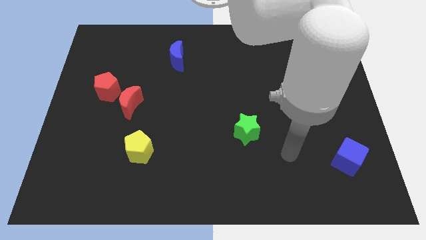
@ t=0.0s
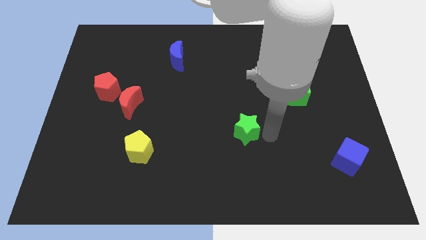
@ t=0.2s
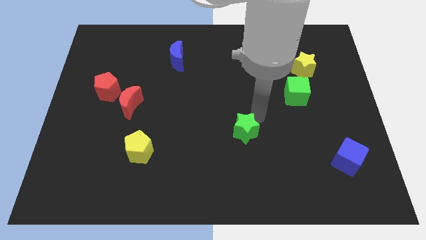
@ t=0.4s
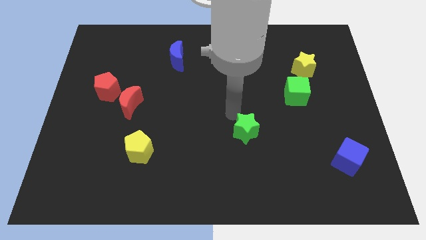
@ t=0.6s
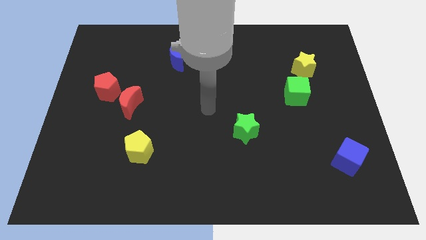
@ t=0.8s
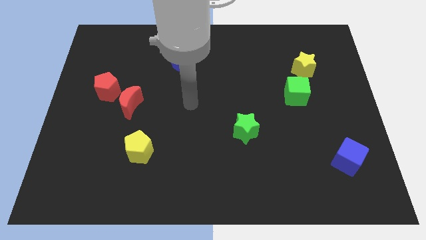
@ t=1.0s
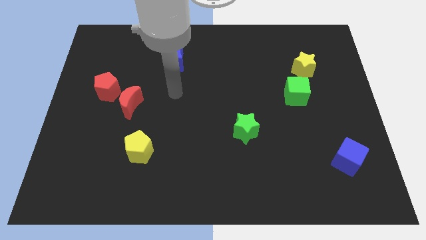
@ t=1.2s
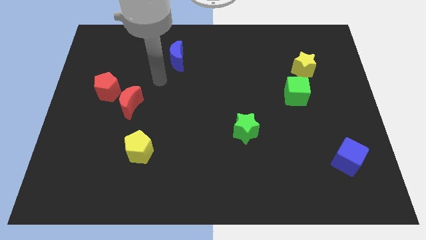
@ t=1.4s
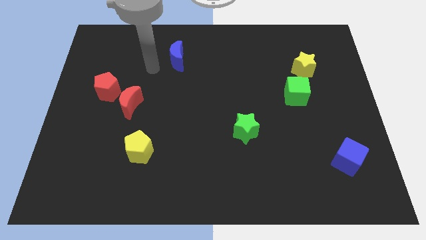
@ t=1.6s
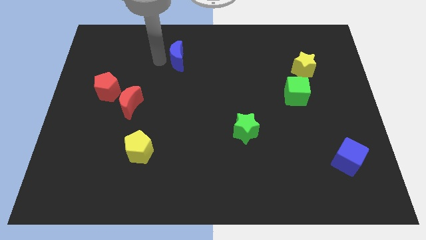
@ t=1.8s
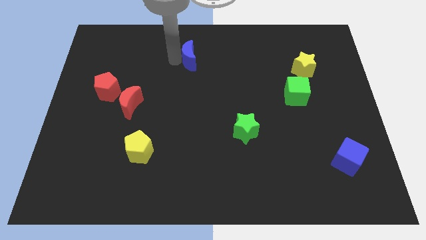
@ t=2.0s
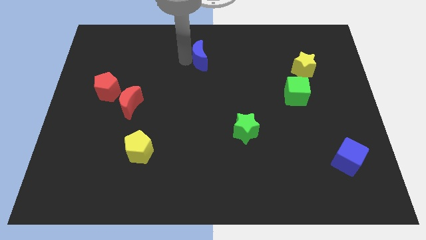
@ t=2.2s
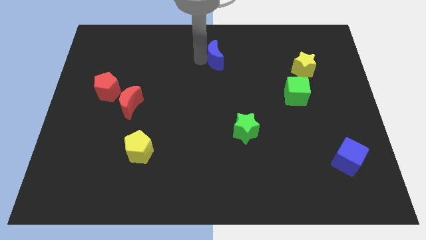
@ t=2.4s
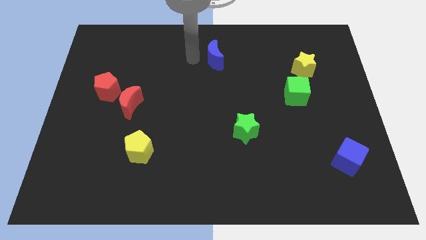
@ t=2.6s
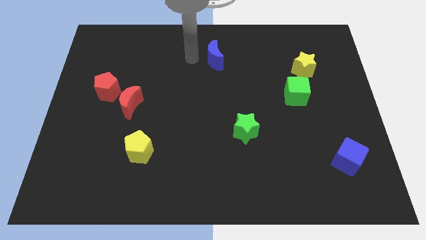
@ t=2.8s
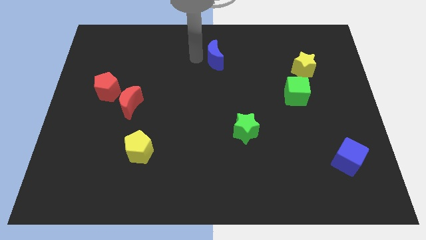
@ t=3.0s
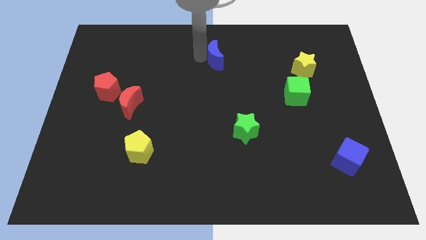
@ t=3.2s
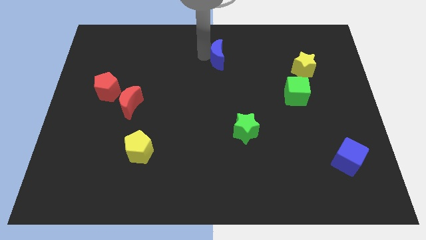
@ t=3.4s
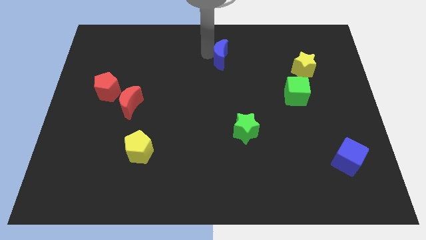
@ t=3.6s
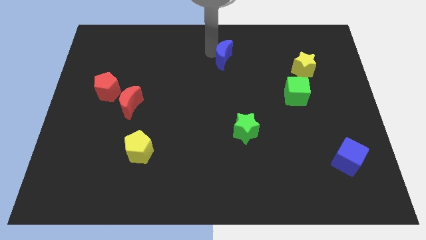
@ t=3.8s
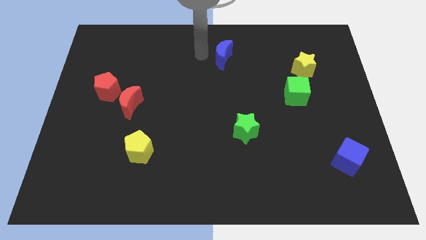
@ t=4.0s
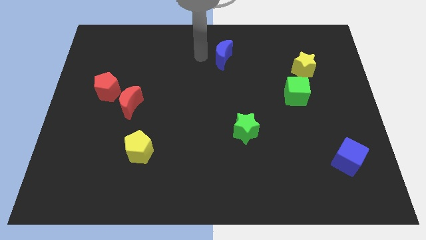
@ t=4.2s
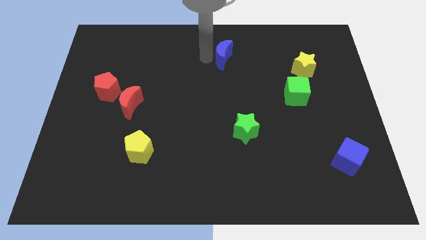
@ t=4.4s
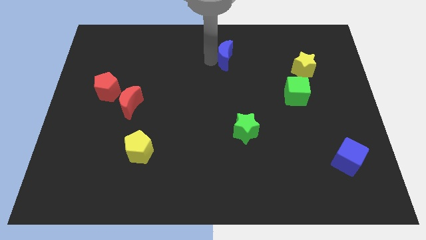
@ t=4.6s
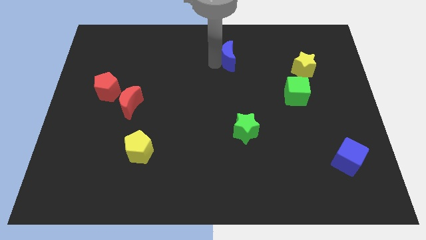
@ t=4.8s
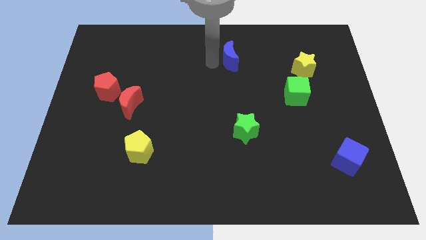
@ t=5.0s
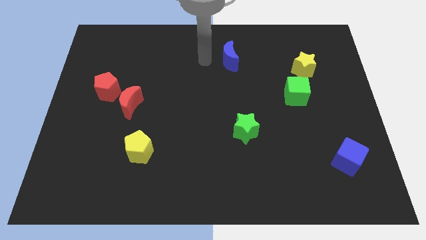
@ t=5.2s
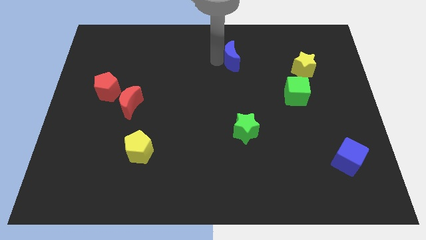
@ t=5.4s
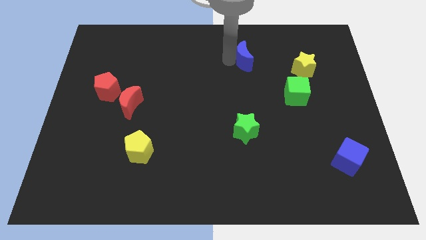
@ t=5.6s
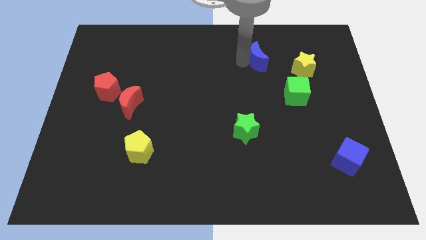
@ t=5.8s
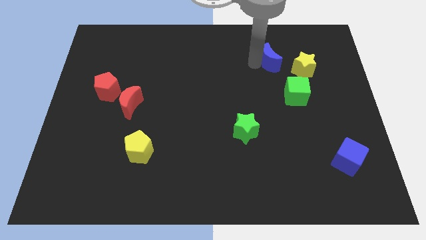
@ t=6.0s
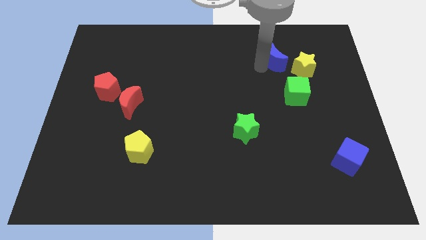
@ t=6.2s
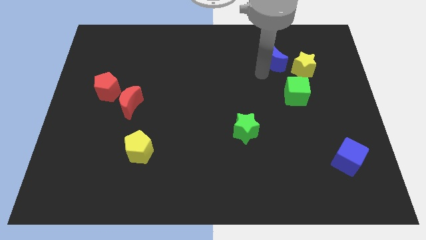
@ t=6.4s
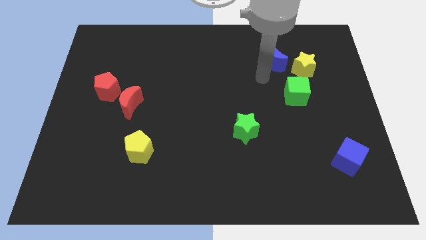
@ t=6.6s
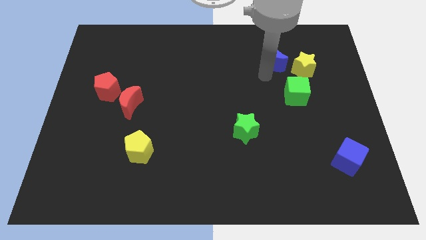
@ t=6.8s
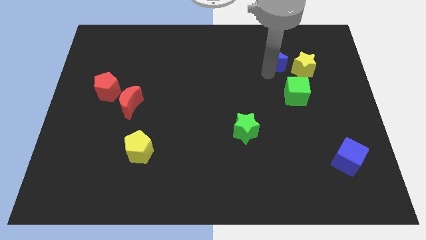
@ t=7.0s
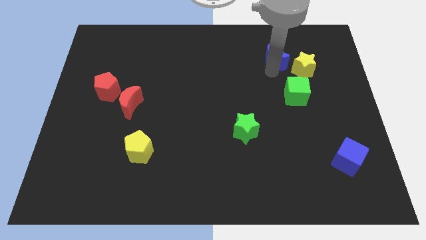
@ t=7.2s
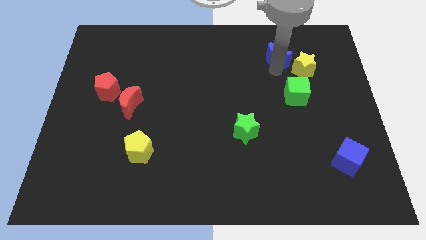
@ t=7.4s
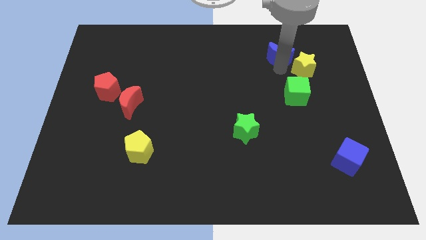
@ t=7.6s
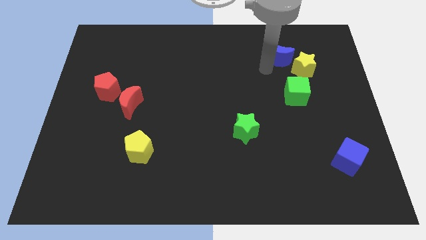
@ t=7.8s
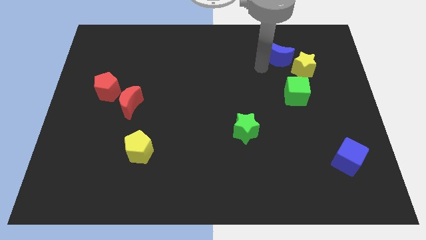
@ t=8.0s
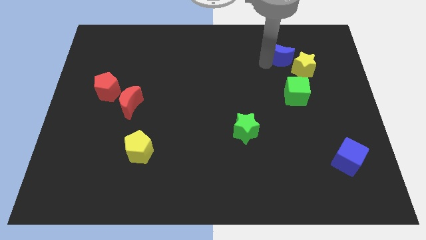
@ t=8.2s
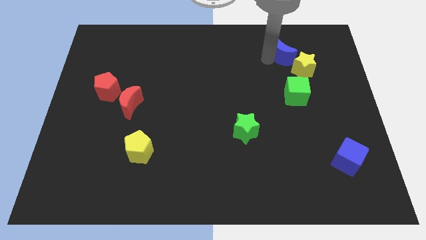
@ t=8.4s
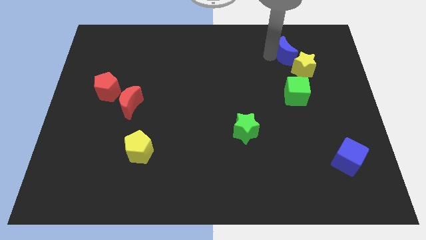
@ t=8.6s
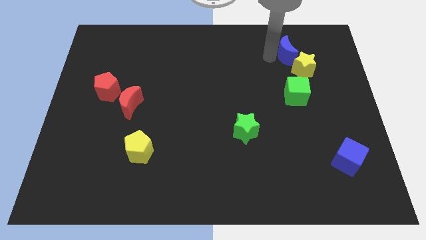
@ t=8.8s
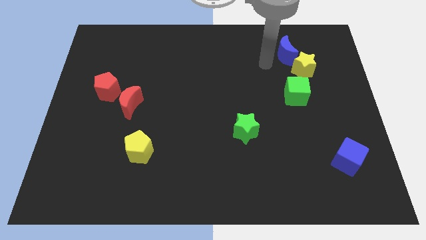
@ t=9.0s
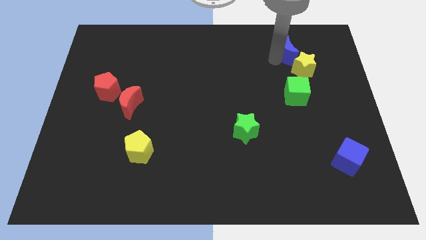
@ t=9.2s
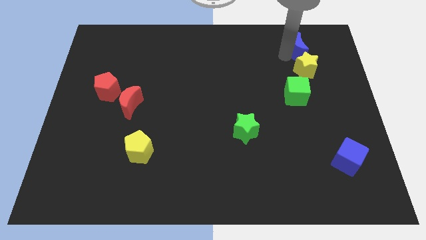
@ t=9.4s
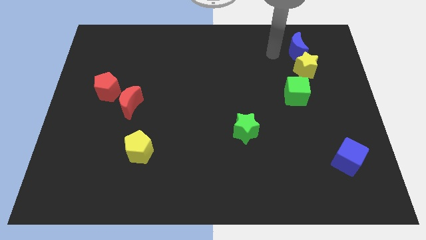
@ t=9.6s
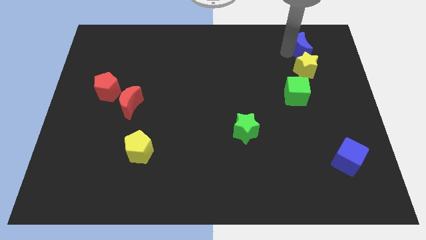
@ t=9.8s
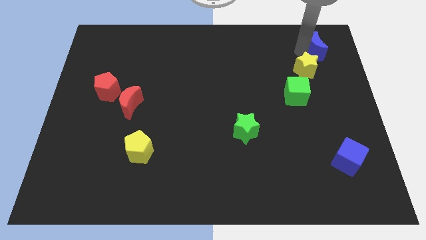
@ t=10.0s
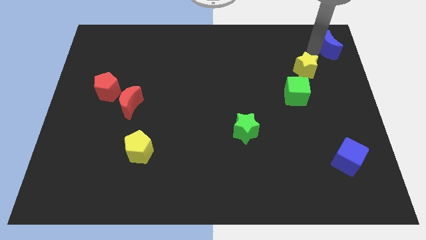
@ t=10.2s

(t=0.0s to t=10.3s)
move the blue moon to the upper right corner

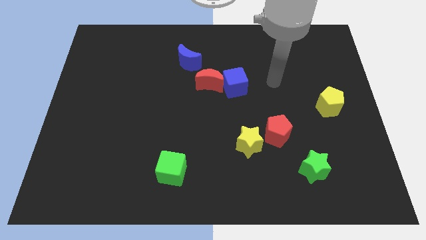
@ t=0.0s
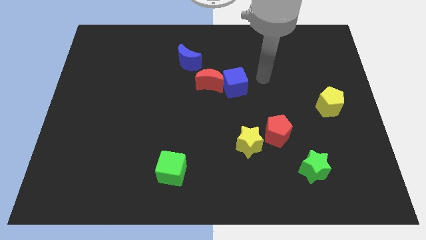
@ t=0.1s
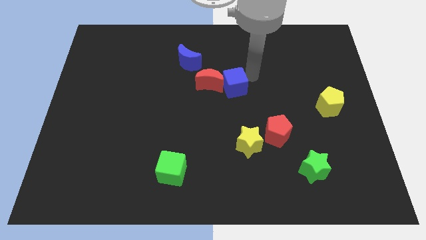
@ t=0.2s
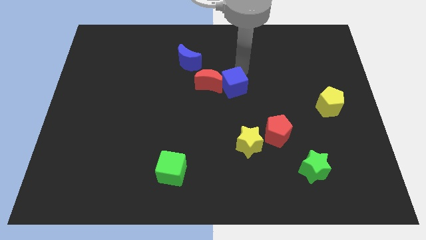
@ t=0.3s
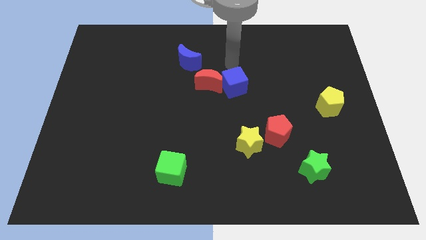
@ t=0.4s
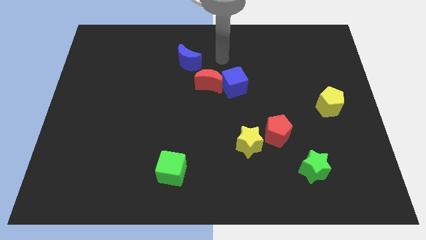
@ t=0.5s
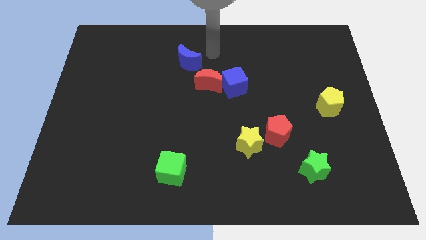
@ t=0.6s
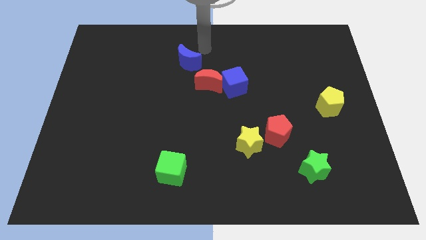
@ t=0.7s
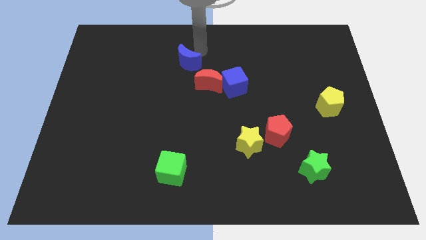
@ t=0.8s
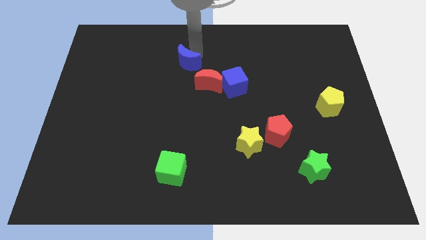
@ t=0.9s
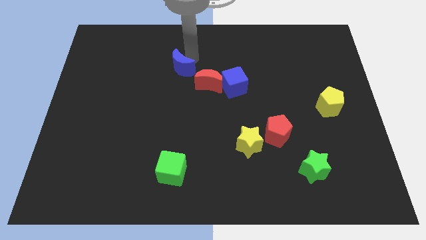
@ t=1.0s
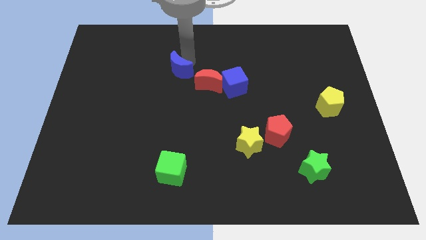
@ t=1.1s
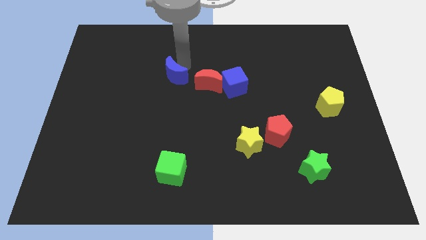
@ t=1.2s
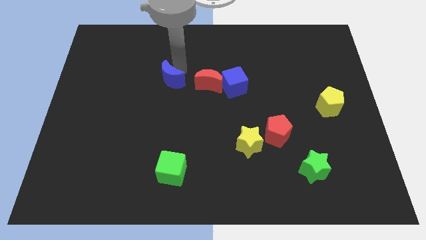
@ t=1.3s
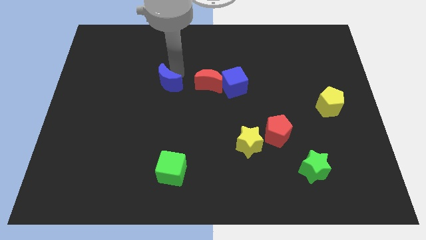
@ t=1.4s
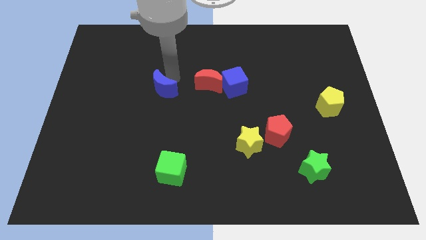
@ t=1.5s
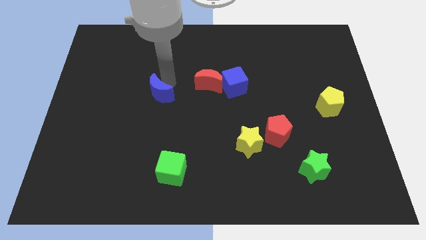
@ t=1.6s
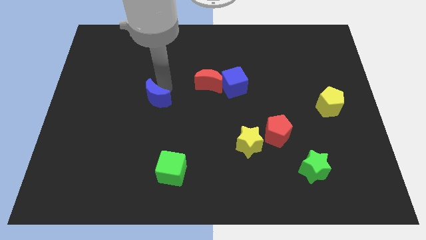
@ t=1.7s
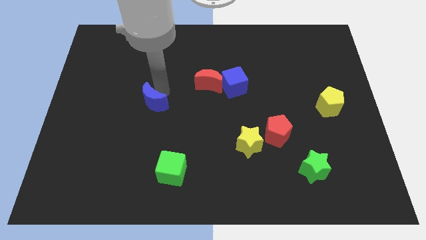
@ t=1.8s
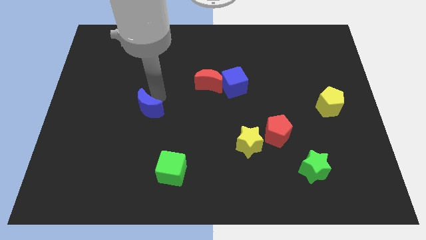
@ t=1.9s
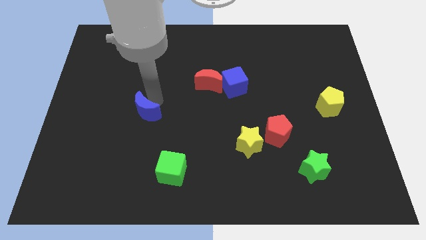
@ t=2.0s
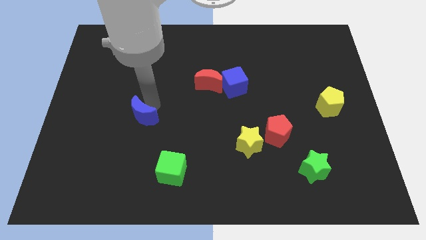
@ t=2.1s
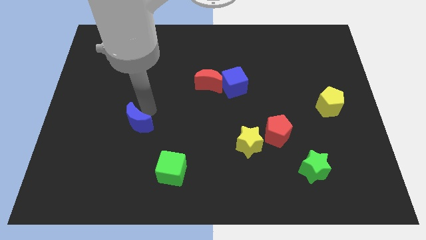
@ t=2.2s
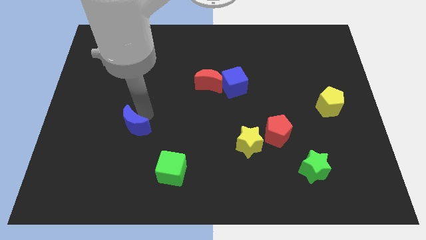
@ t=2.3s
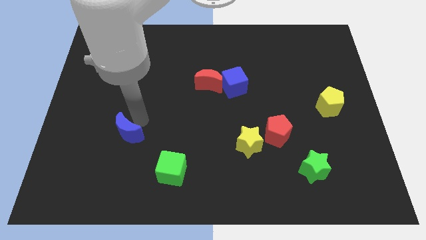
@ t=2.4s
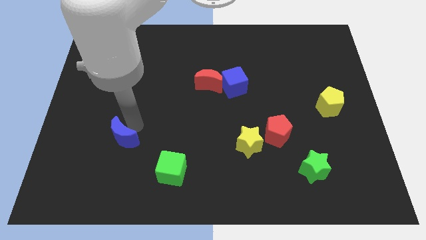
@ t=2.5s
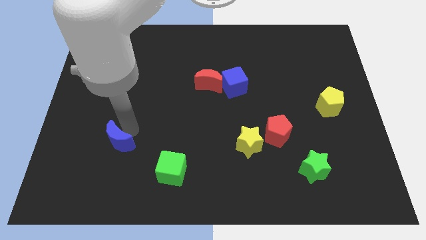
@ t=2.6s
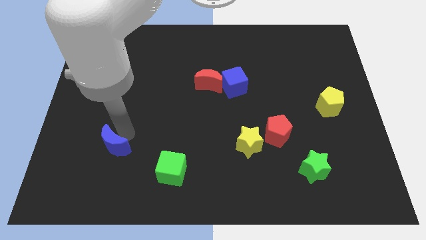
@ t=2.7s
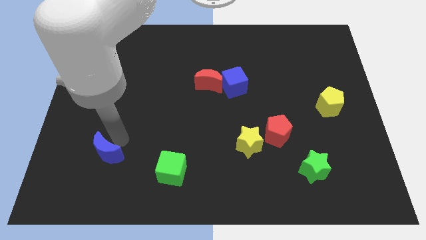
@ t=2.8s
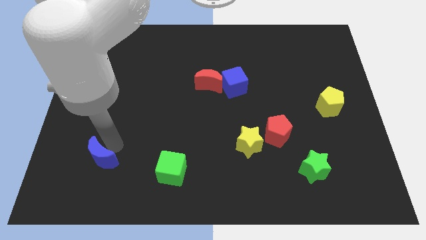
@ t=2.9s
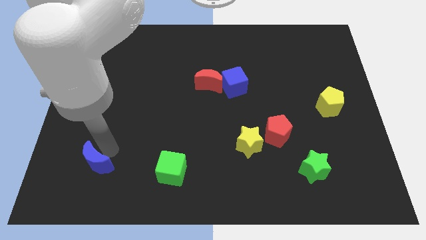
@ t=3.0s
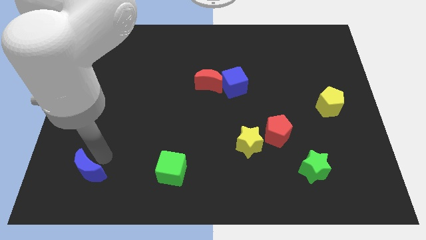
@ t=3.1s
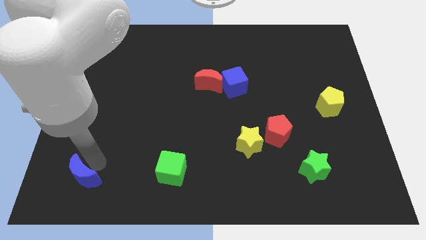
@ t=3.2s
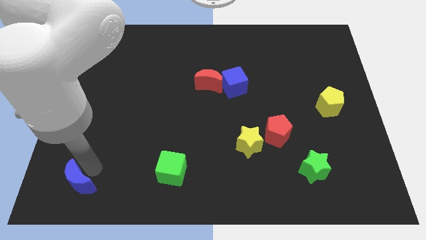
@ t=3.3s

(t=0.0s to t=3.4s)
move the blue moon to the lower left corner
